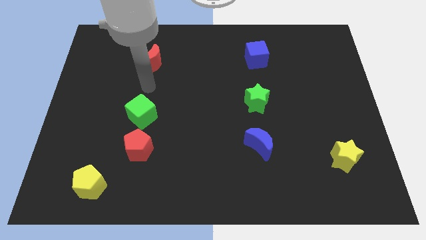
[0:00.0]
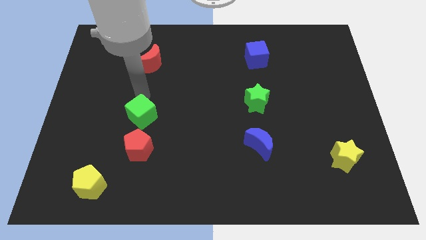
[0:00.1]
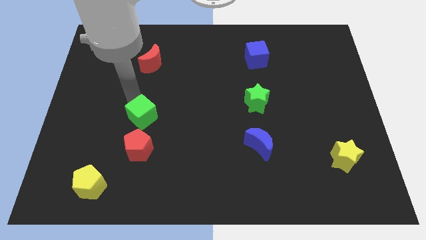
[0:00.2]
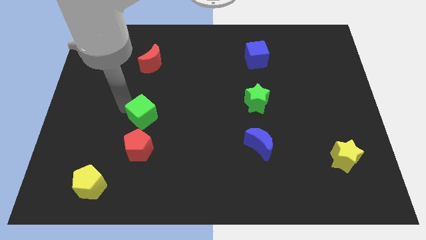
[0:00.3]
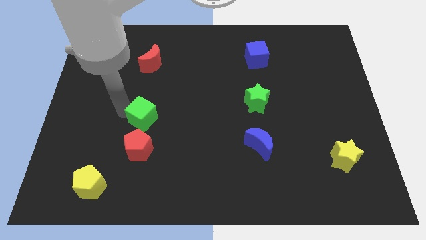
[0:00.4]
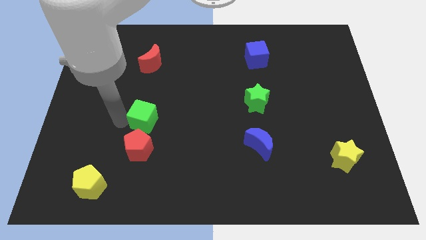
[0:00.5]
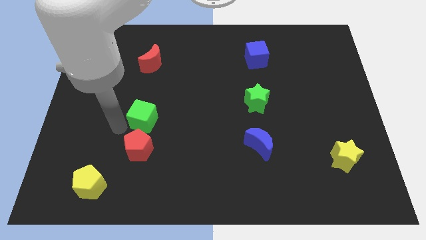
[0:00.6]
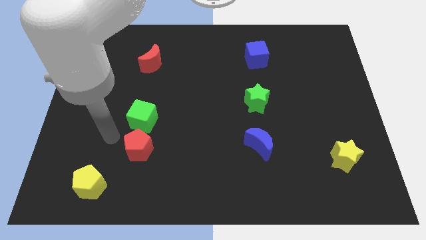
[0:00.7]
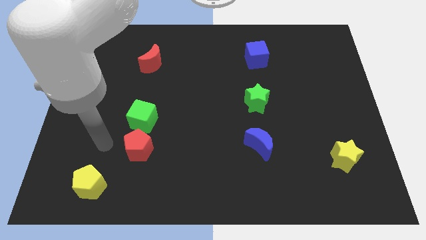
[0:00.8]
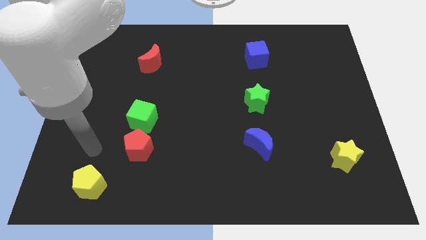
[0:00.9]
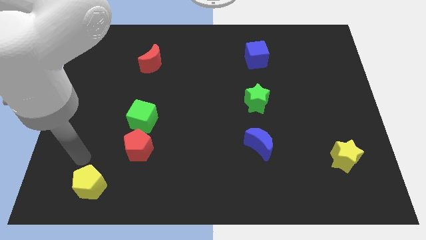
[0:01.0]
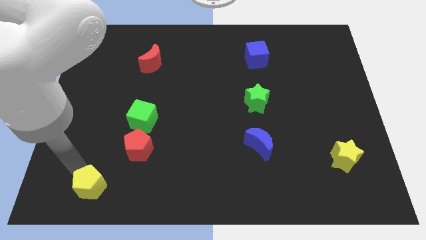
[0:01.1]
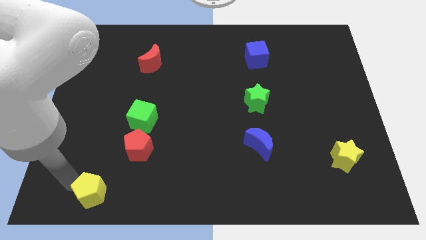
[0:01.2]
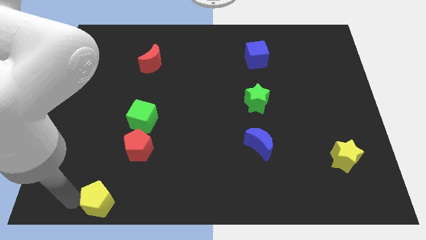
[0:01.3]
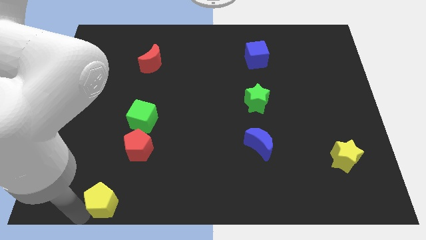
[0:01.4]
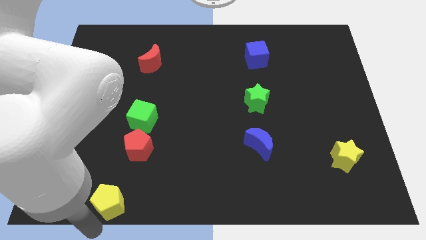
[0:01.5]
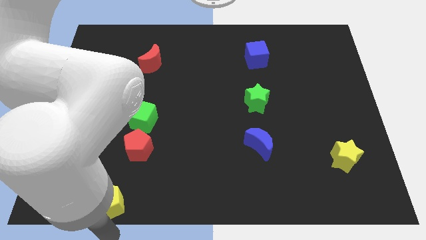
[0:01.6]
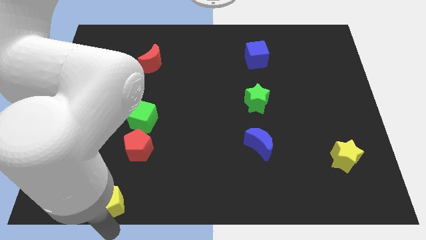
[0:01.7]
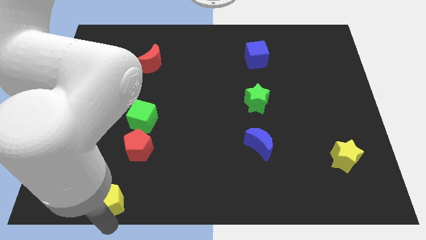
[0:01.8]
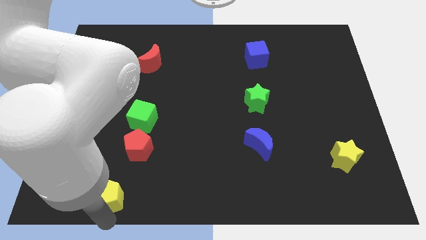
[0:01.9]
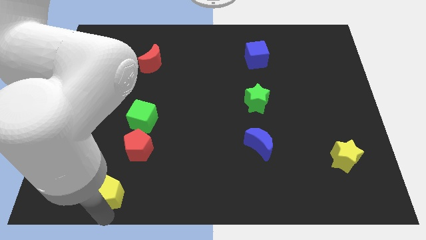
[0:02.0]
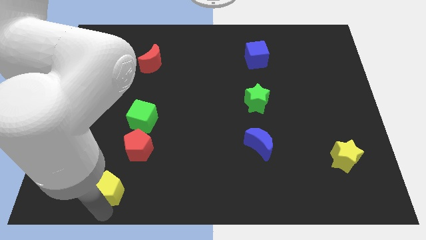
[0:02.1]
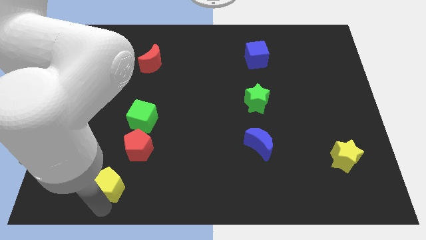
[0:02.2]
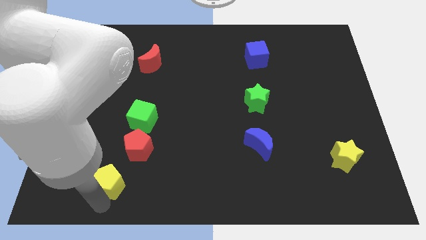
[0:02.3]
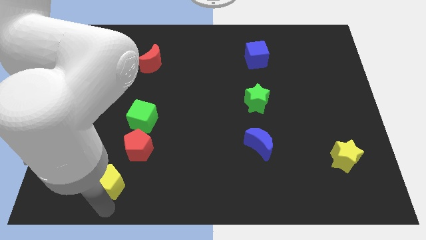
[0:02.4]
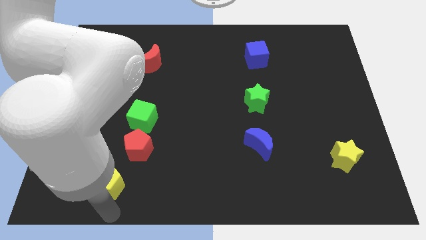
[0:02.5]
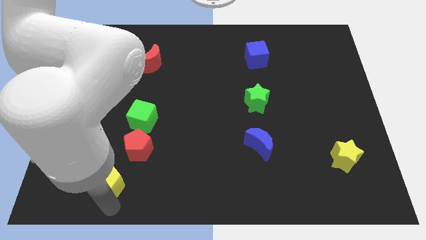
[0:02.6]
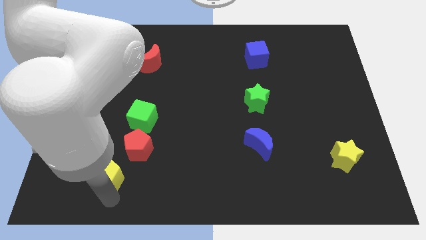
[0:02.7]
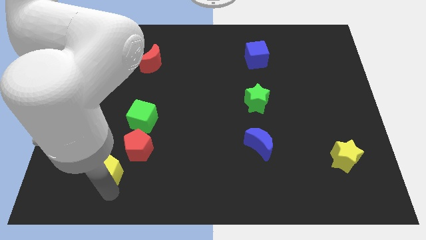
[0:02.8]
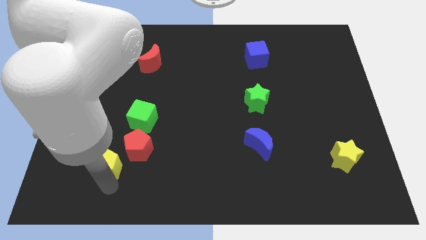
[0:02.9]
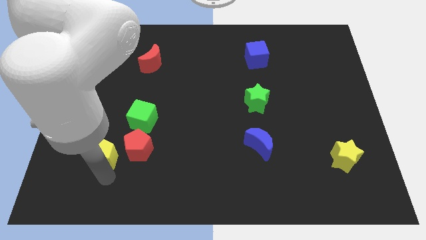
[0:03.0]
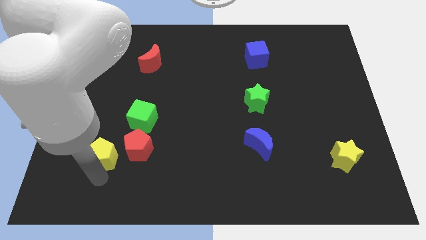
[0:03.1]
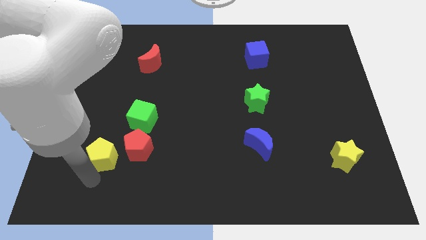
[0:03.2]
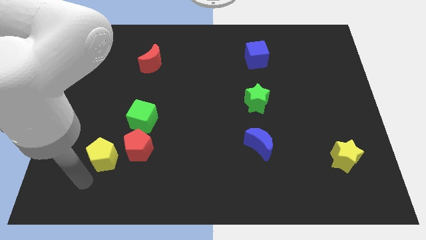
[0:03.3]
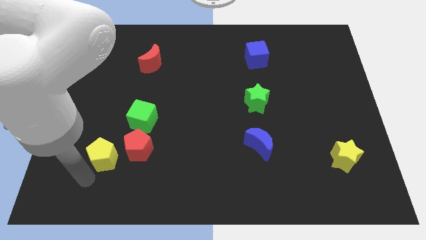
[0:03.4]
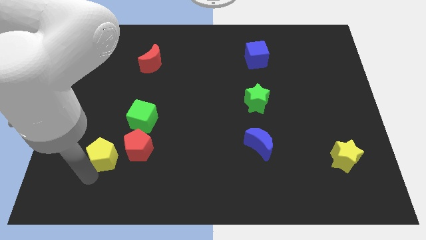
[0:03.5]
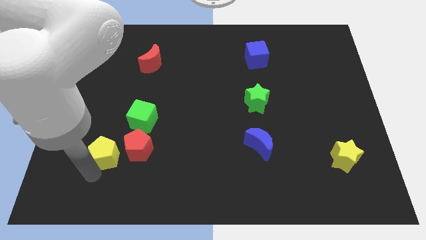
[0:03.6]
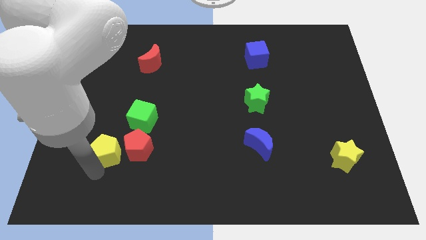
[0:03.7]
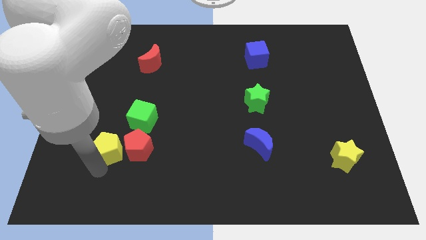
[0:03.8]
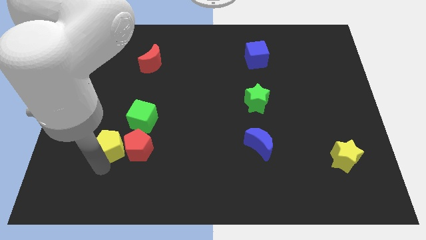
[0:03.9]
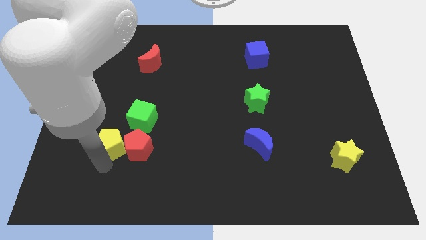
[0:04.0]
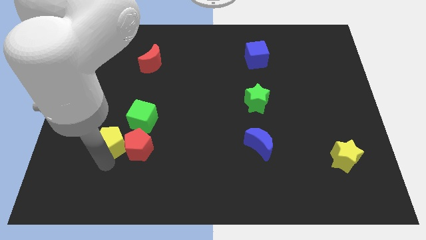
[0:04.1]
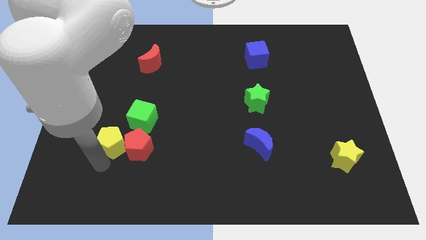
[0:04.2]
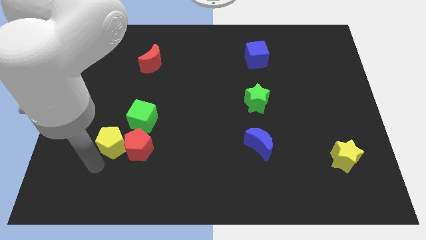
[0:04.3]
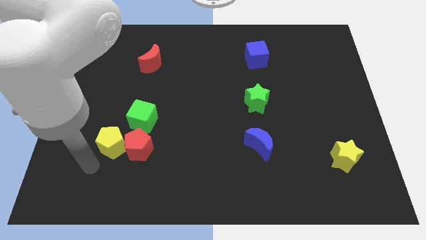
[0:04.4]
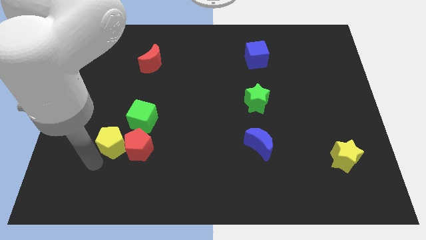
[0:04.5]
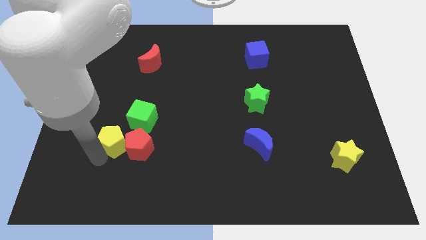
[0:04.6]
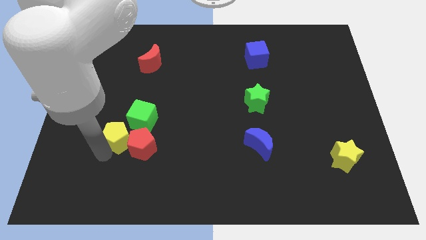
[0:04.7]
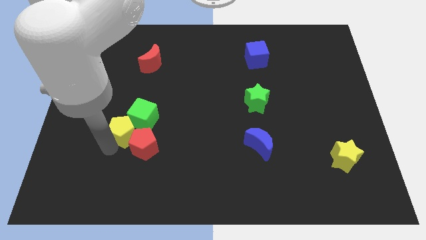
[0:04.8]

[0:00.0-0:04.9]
slide the yellow pentagon towards the green cube

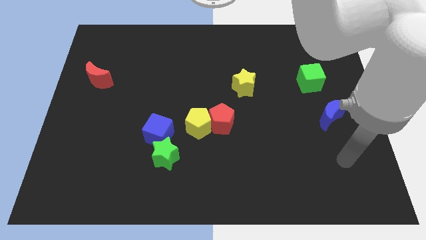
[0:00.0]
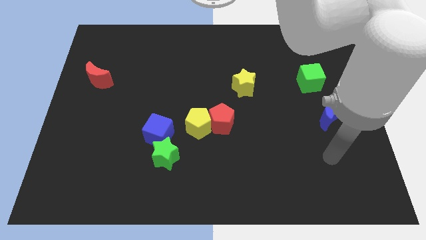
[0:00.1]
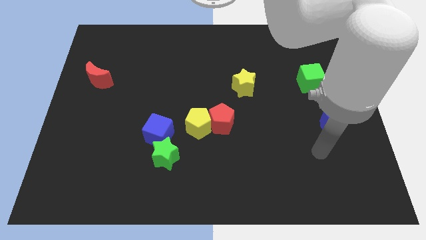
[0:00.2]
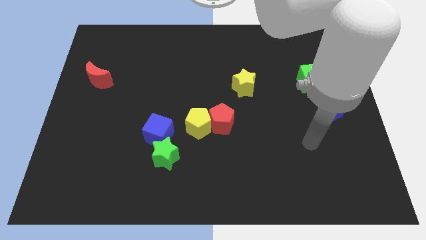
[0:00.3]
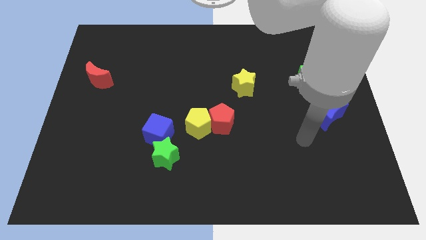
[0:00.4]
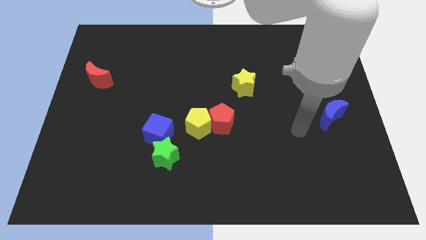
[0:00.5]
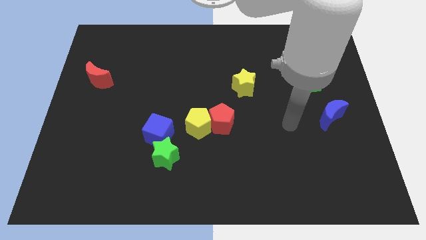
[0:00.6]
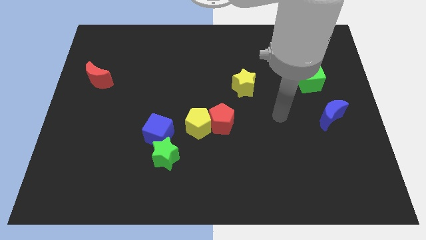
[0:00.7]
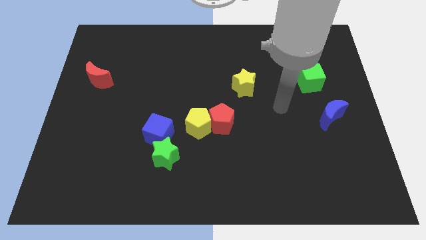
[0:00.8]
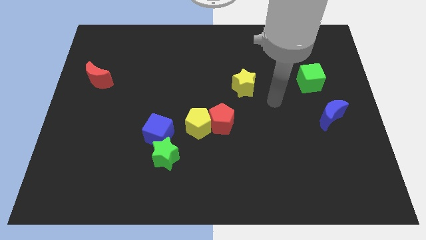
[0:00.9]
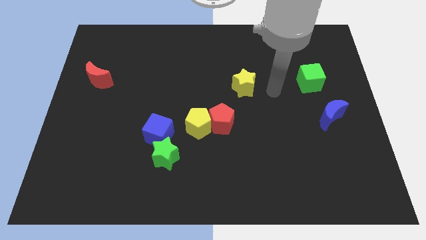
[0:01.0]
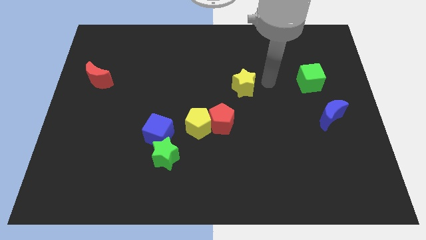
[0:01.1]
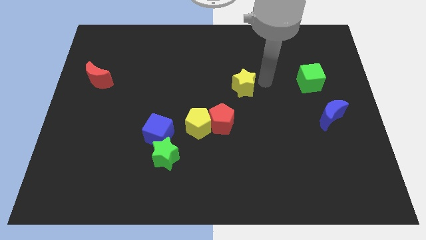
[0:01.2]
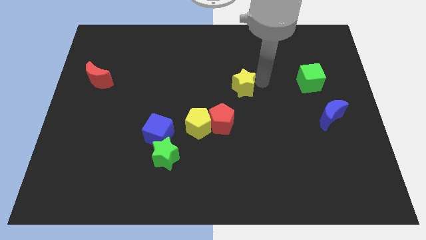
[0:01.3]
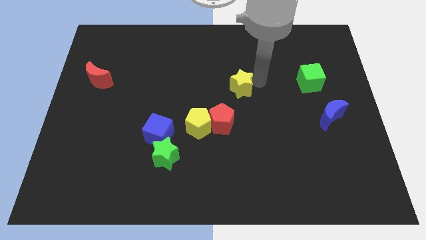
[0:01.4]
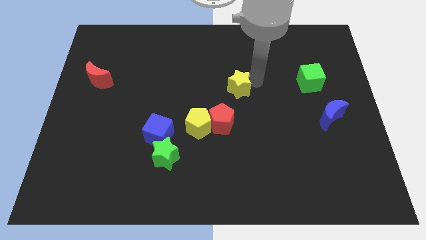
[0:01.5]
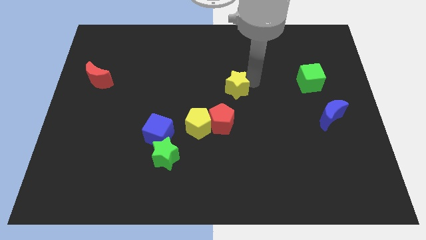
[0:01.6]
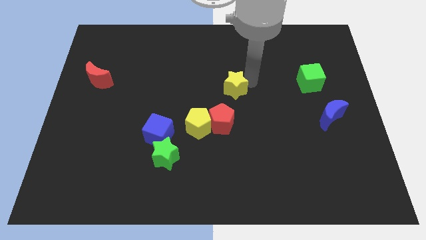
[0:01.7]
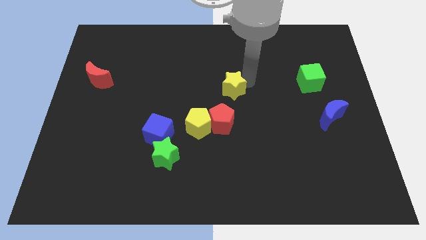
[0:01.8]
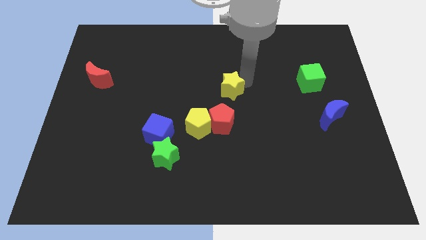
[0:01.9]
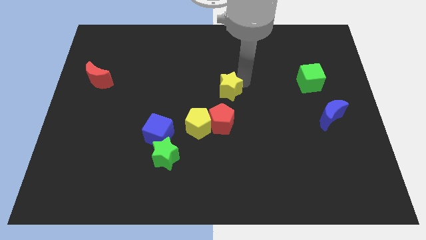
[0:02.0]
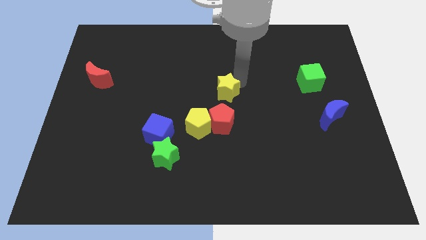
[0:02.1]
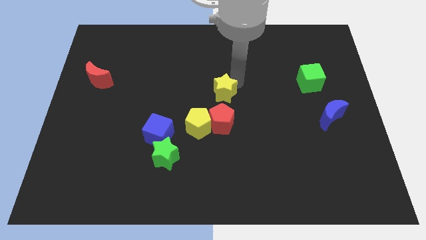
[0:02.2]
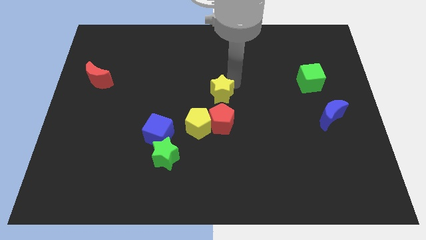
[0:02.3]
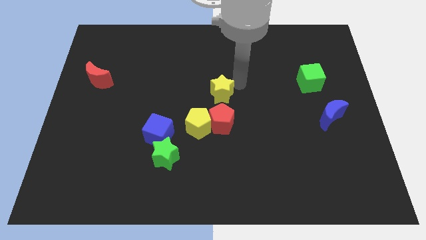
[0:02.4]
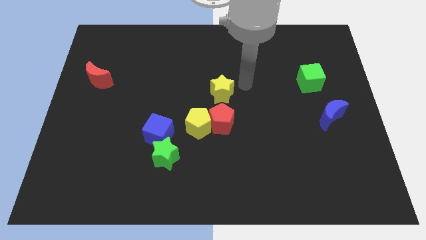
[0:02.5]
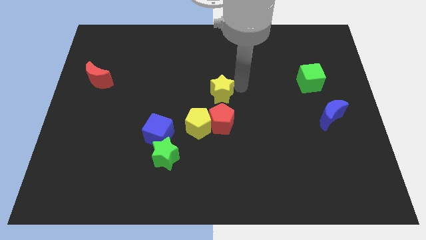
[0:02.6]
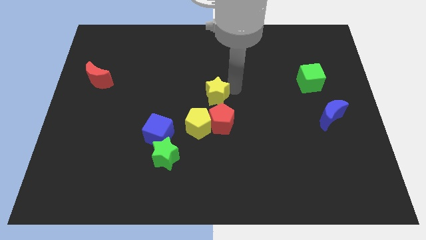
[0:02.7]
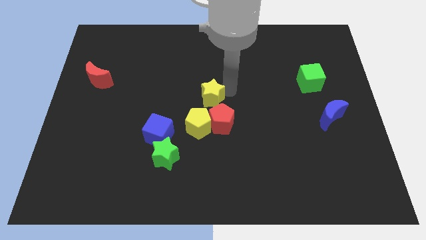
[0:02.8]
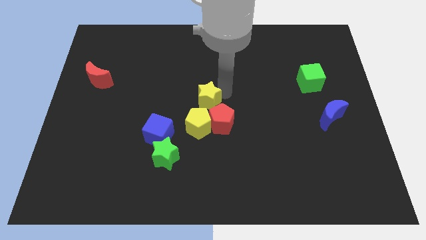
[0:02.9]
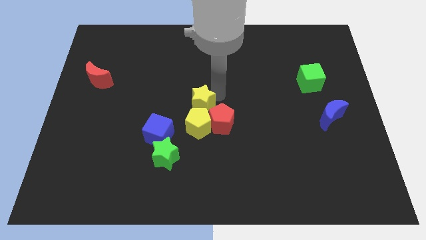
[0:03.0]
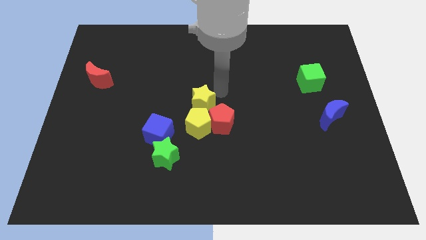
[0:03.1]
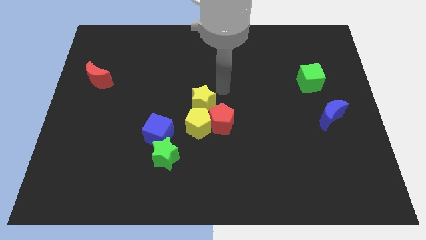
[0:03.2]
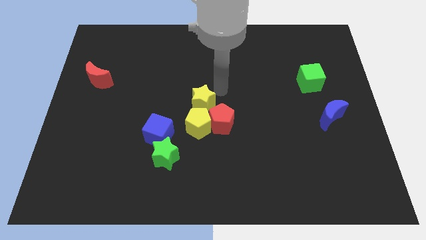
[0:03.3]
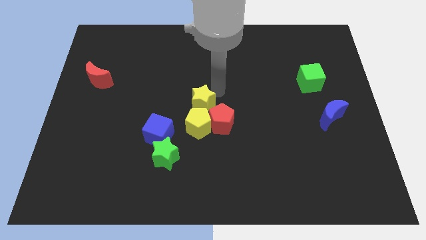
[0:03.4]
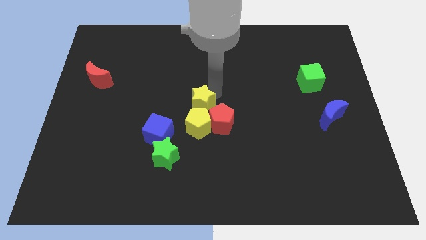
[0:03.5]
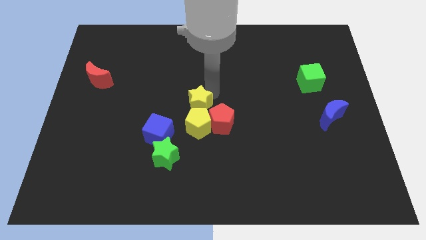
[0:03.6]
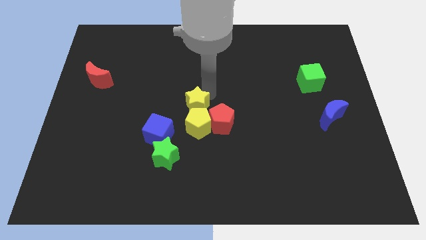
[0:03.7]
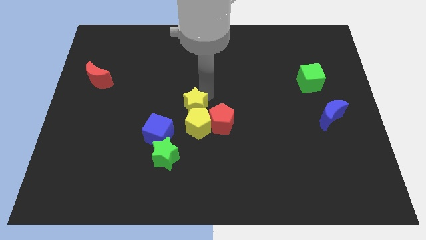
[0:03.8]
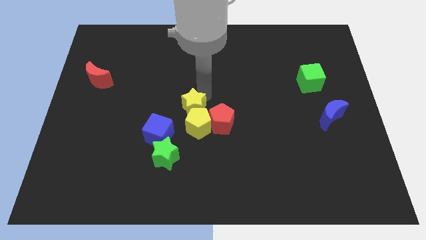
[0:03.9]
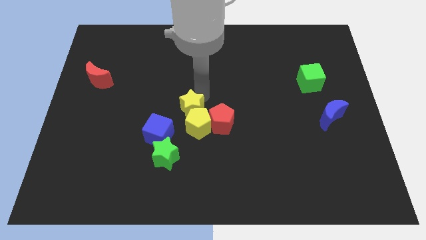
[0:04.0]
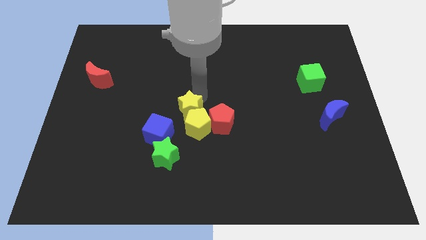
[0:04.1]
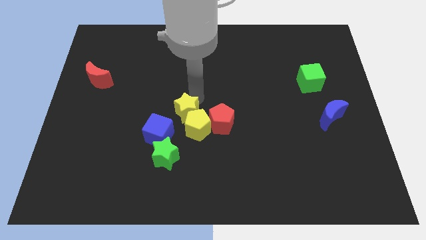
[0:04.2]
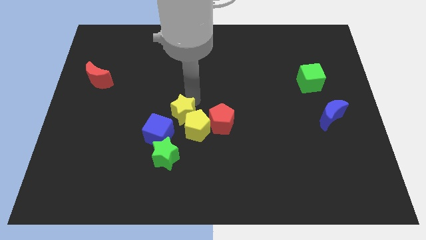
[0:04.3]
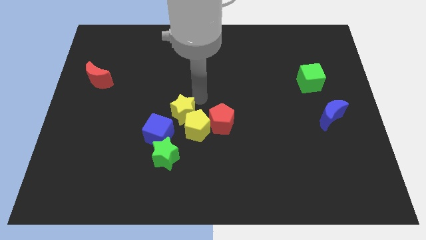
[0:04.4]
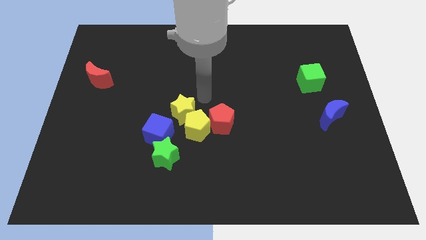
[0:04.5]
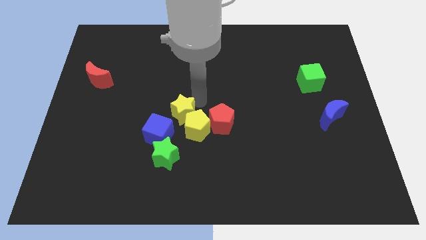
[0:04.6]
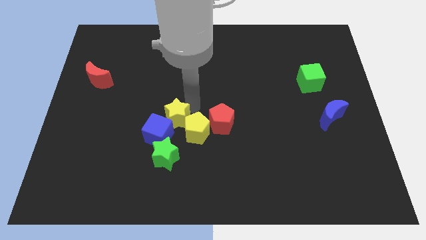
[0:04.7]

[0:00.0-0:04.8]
push the yellow star close to the blue cube
